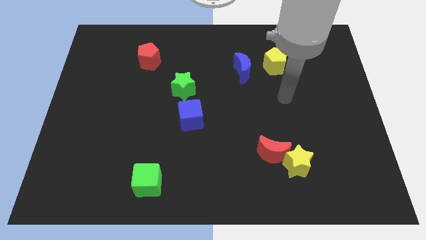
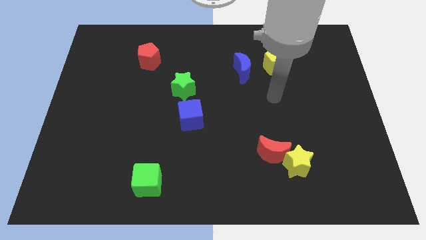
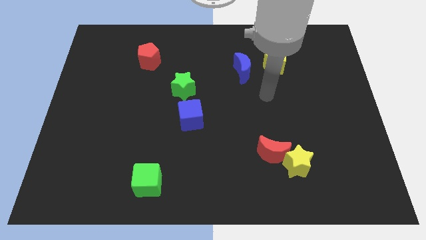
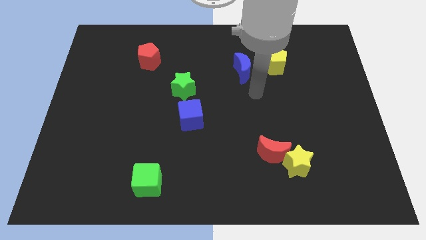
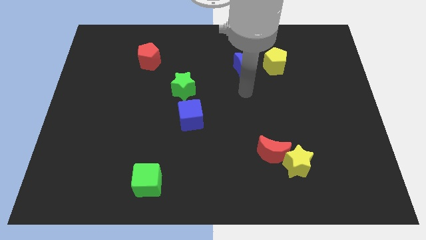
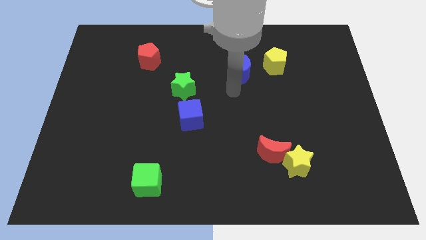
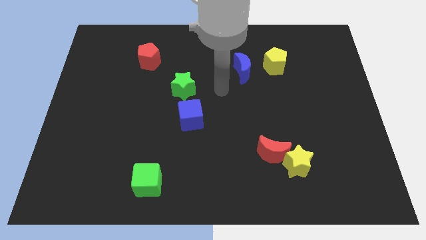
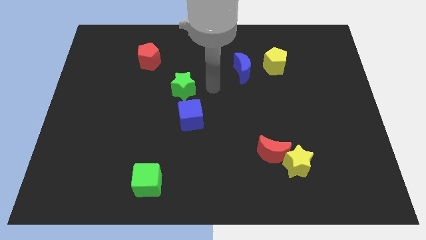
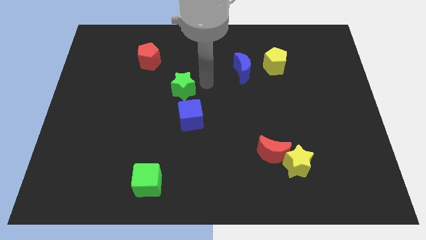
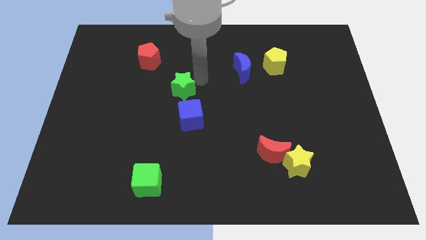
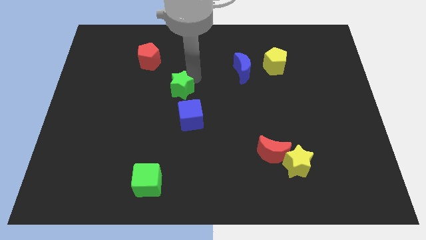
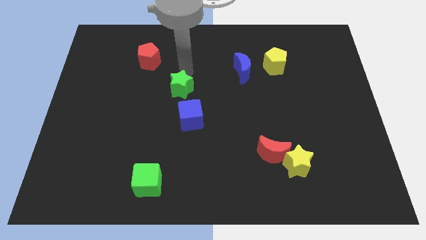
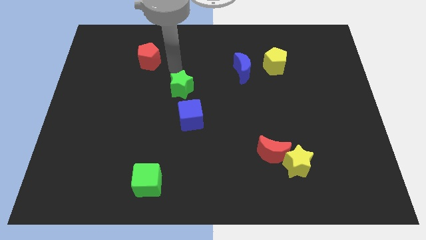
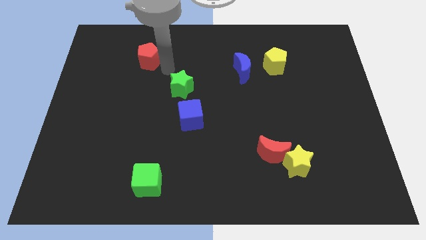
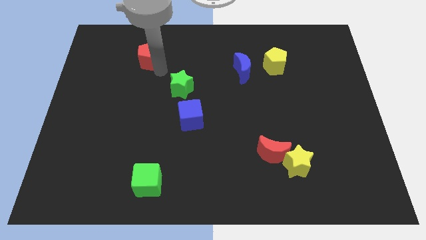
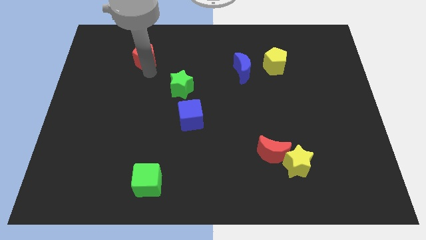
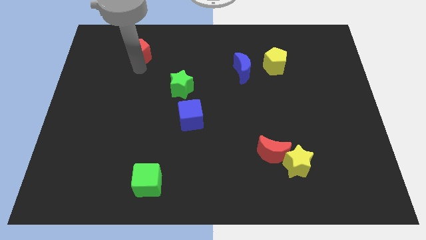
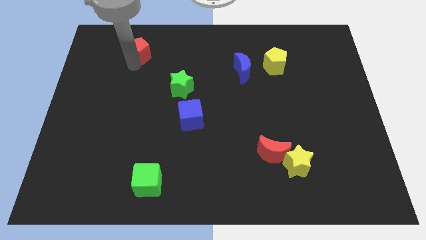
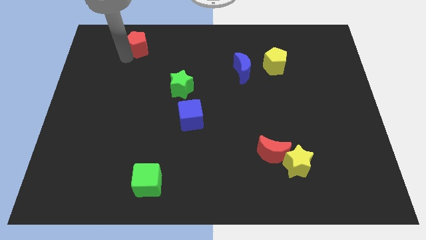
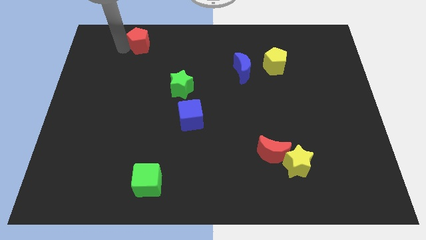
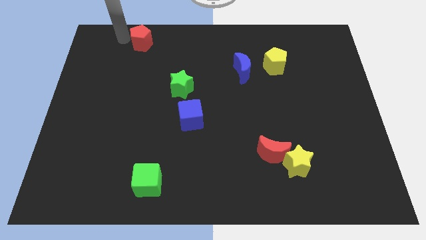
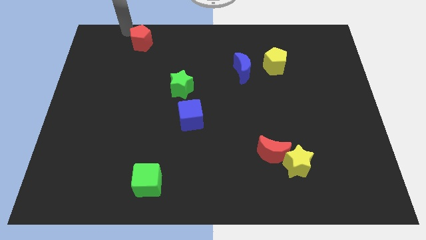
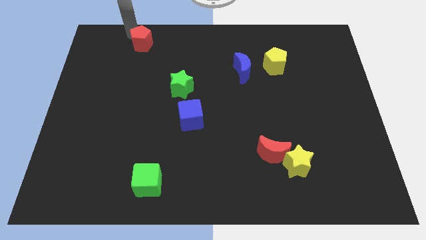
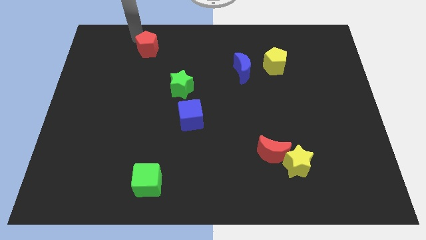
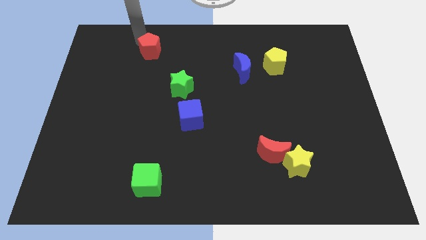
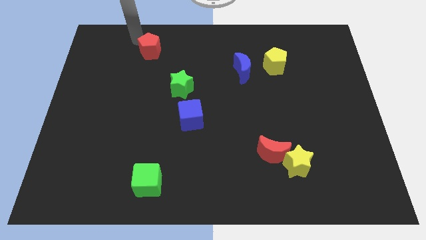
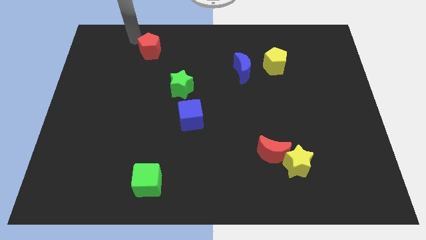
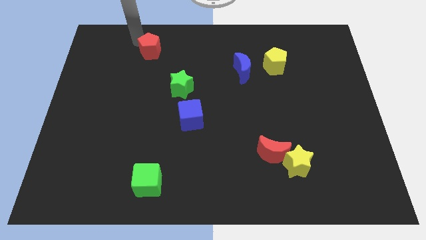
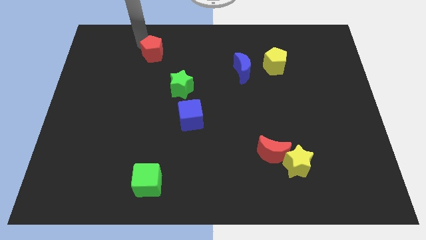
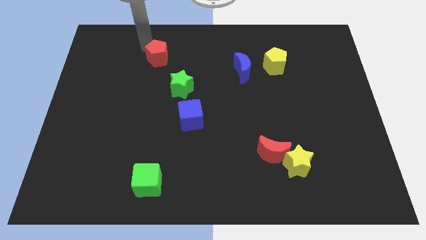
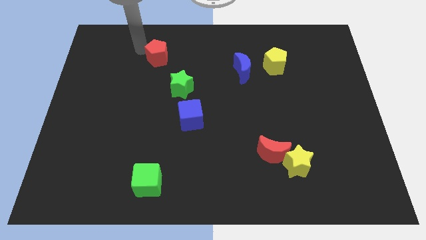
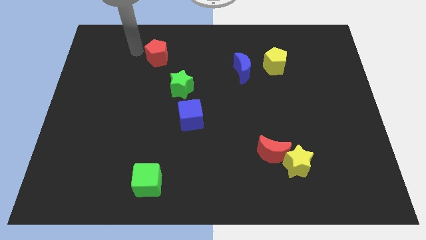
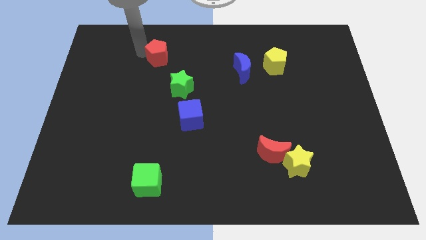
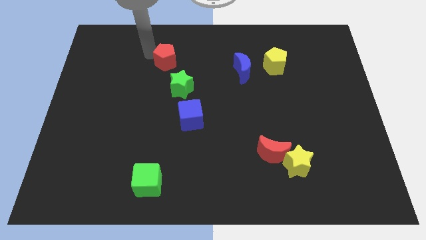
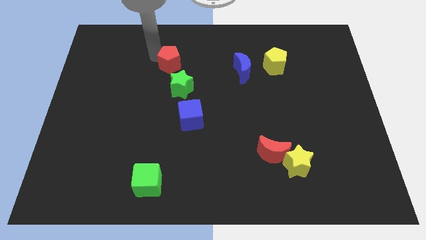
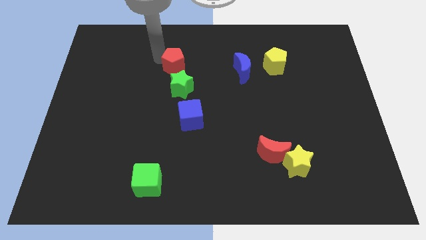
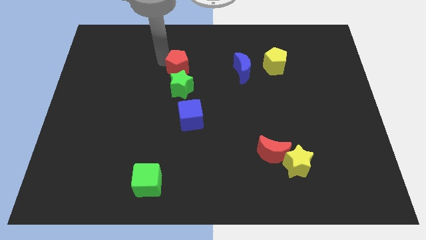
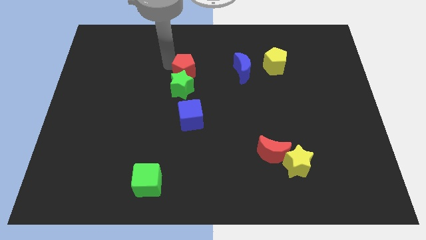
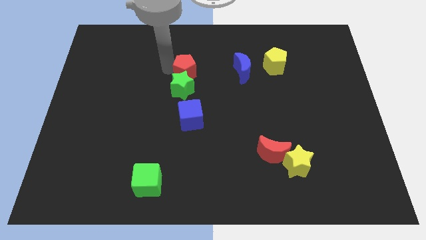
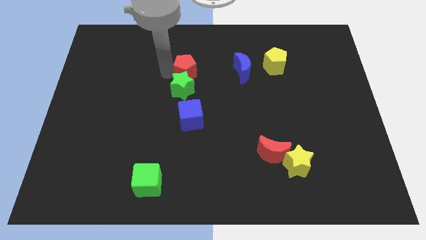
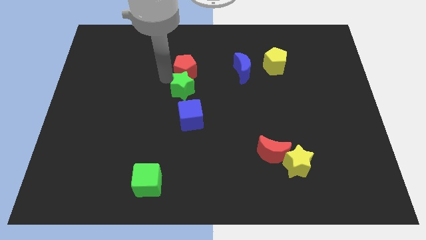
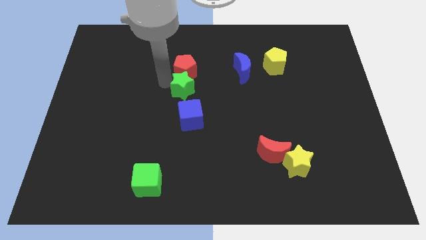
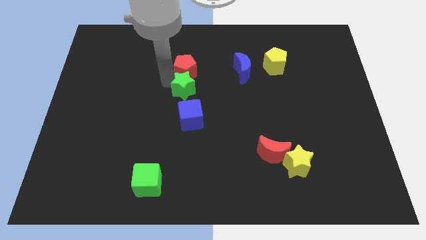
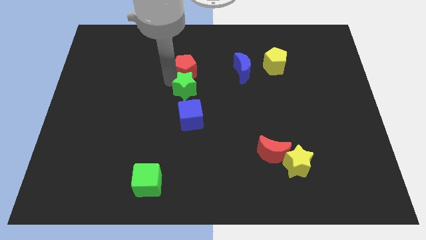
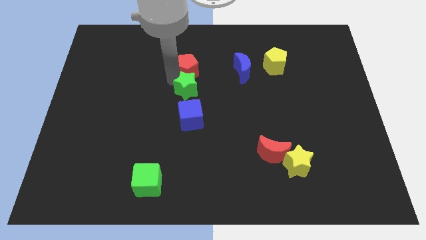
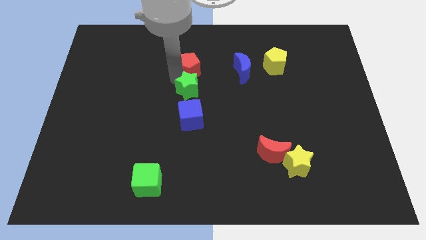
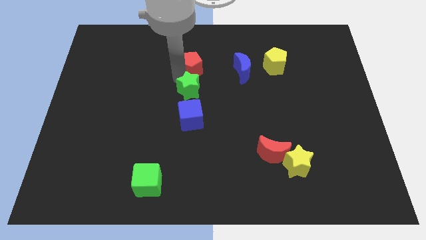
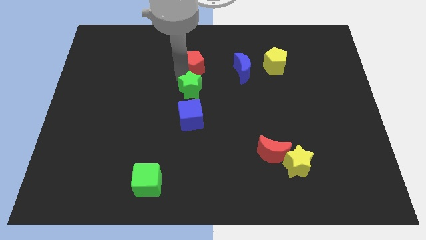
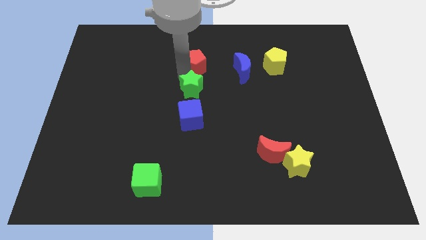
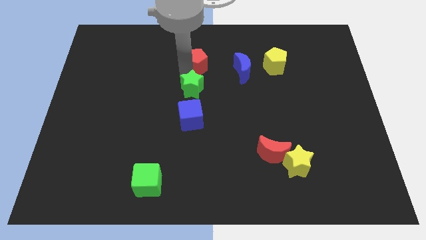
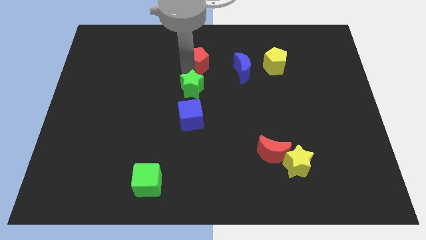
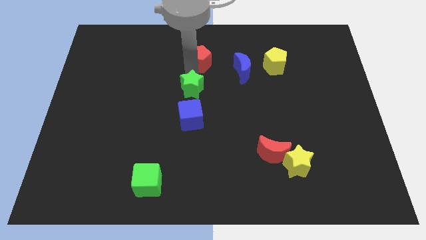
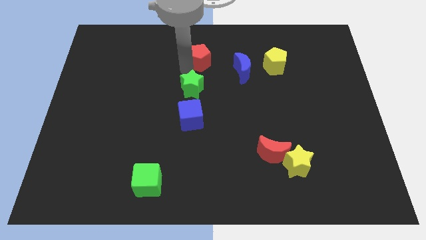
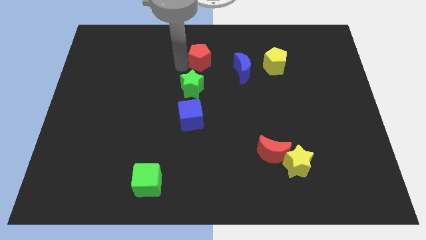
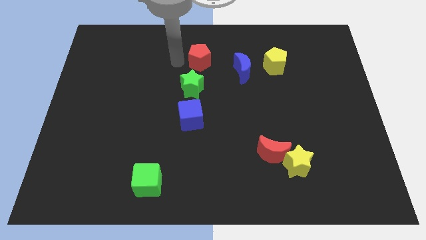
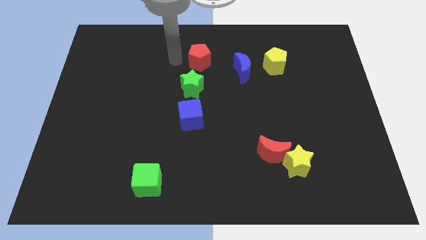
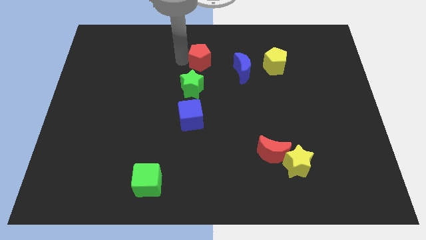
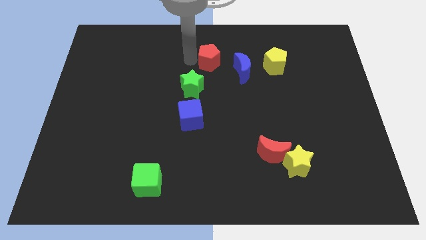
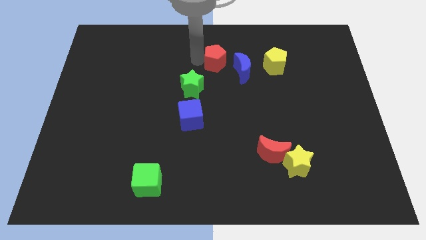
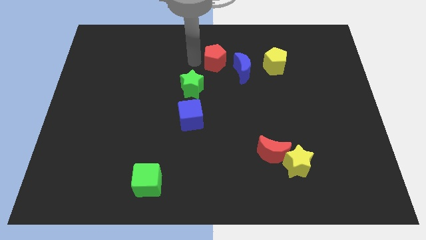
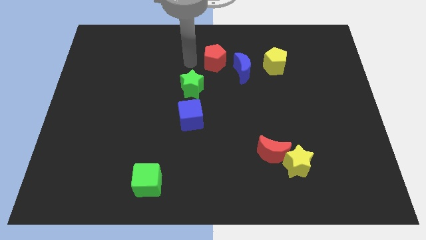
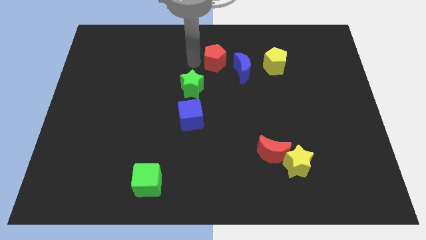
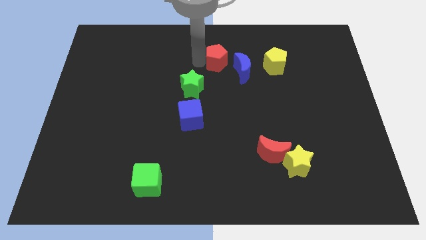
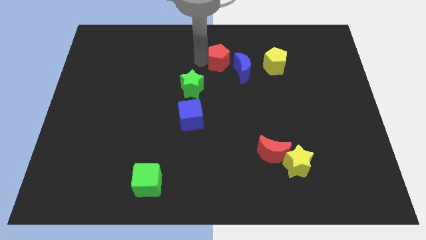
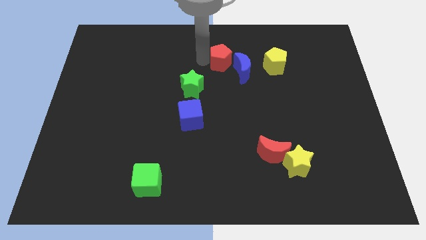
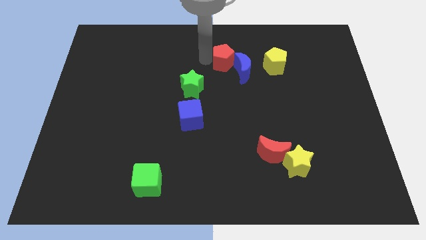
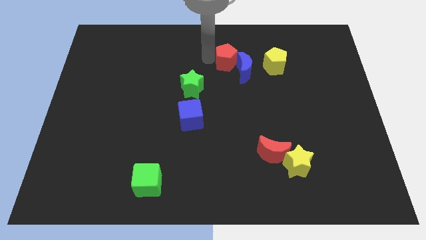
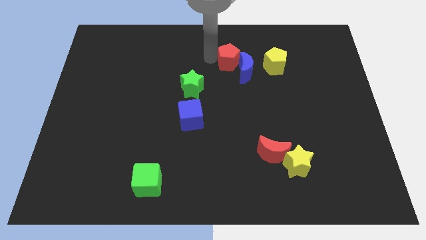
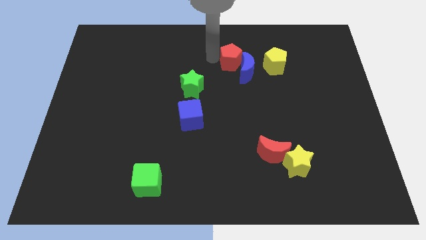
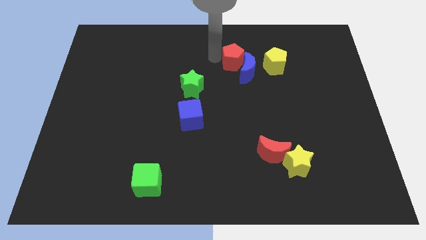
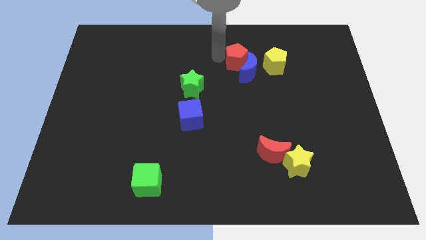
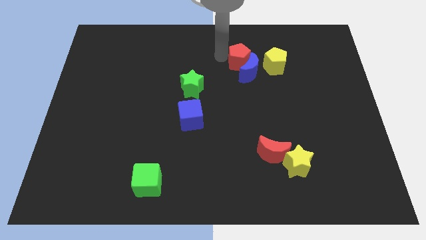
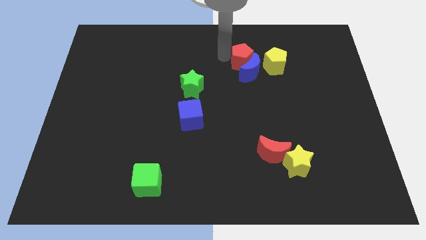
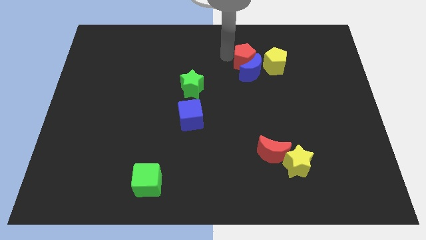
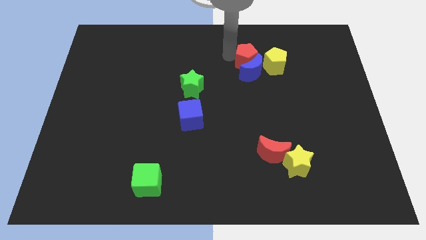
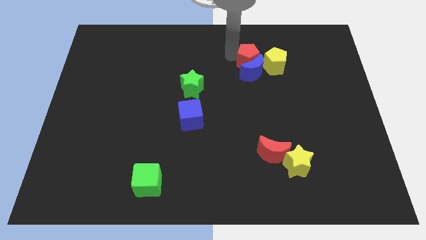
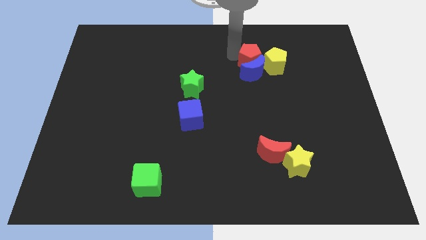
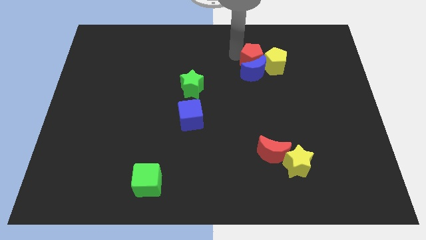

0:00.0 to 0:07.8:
move the red pentagon towards the yellow pentagon
